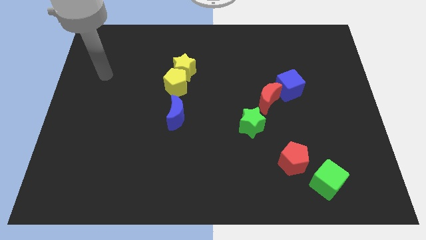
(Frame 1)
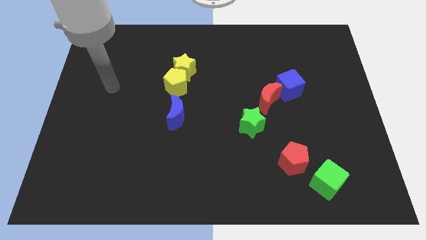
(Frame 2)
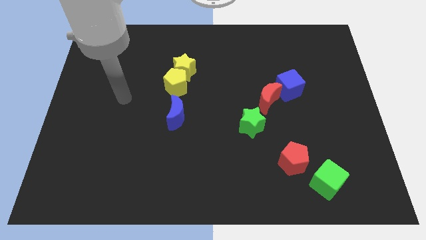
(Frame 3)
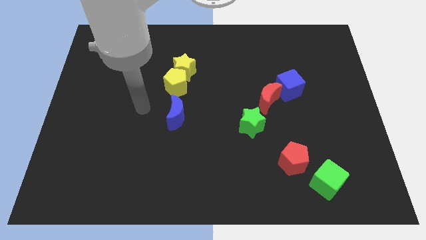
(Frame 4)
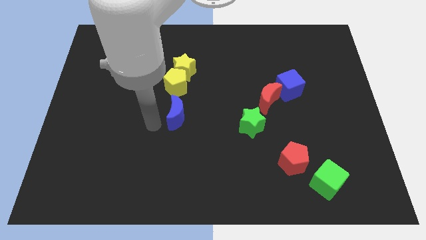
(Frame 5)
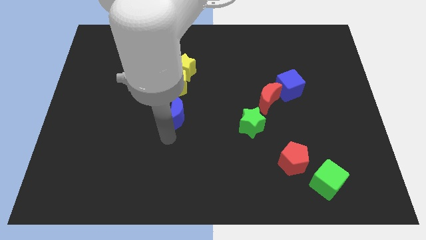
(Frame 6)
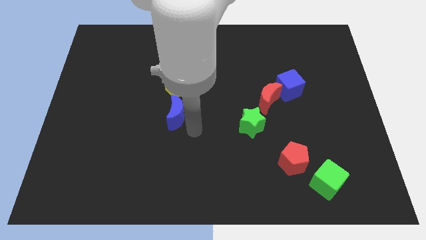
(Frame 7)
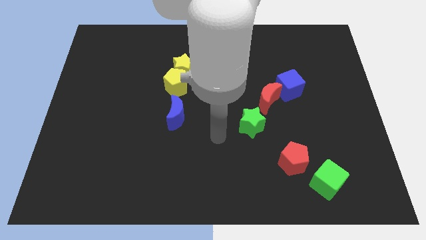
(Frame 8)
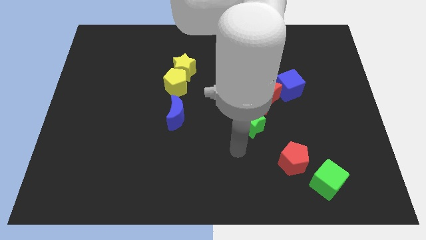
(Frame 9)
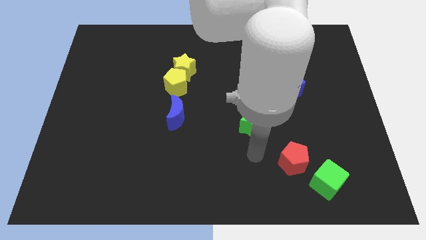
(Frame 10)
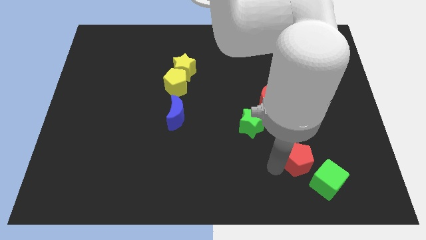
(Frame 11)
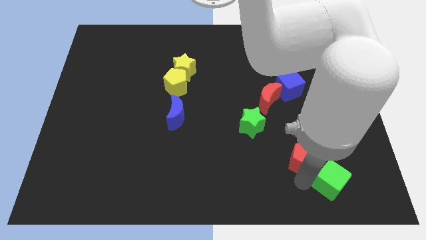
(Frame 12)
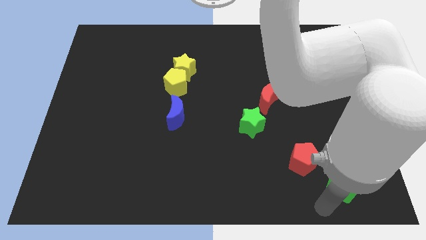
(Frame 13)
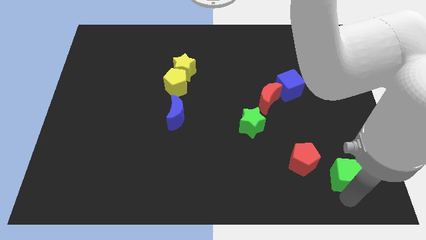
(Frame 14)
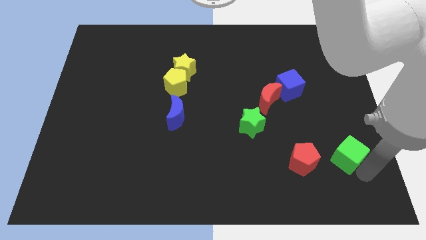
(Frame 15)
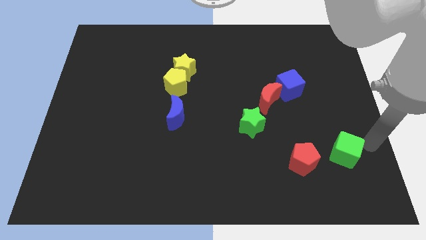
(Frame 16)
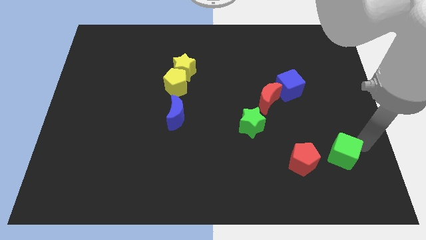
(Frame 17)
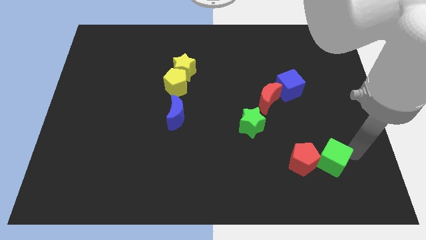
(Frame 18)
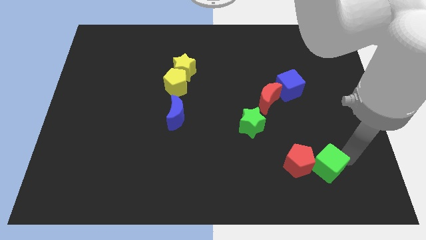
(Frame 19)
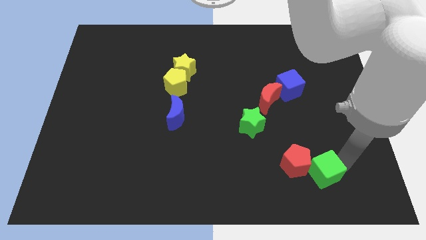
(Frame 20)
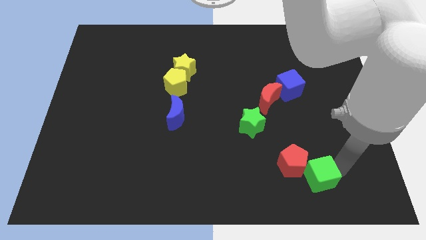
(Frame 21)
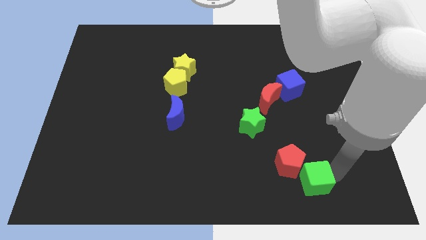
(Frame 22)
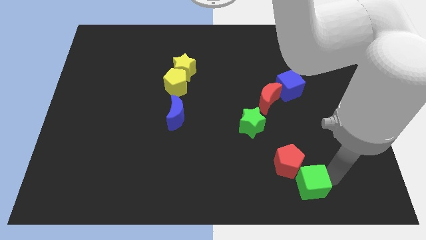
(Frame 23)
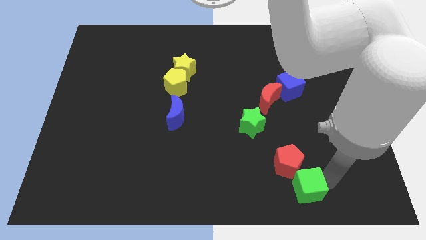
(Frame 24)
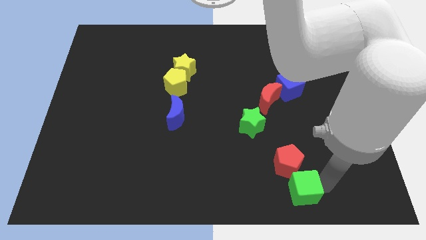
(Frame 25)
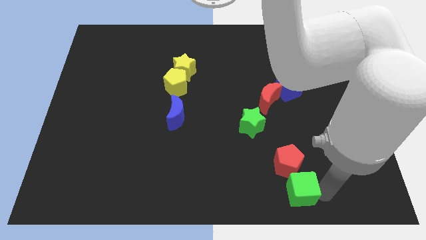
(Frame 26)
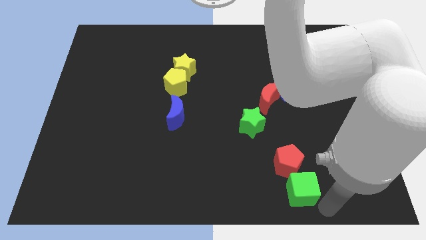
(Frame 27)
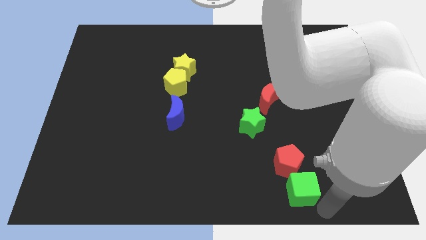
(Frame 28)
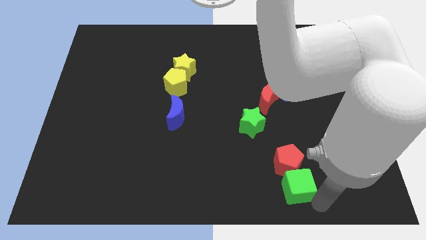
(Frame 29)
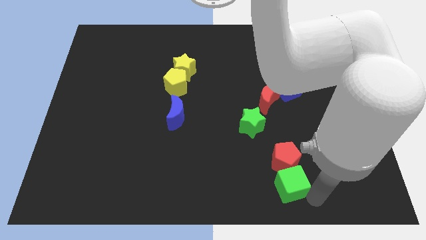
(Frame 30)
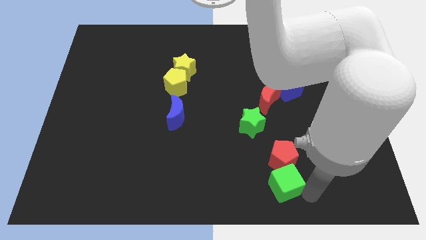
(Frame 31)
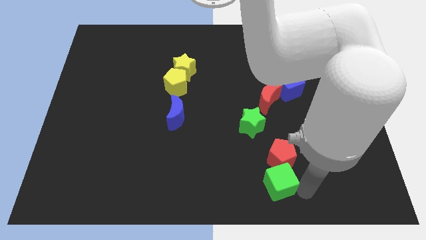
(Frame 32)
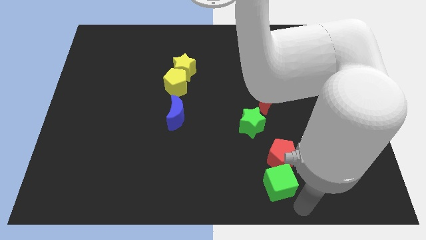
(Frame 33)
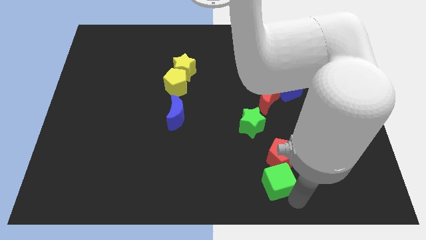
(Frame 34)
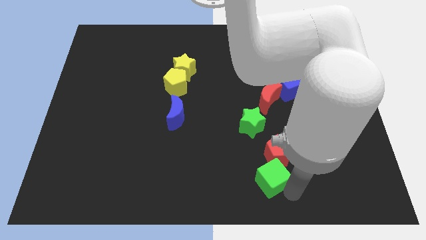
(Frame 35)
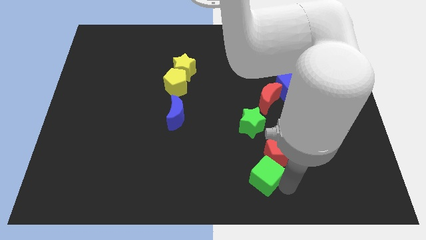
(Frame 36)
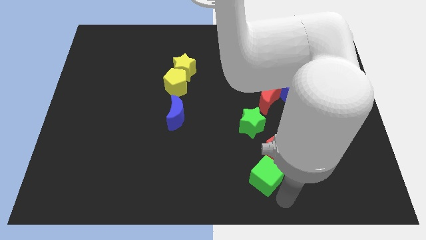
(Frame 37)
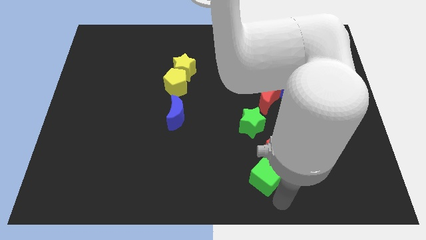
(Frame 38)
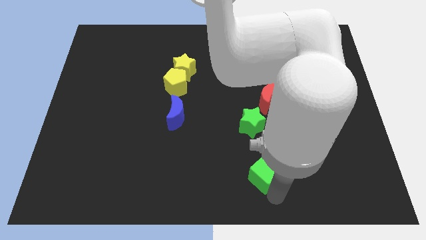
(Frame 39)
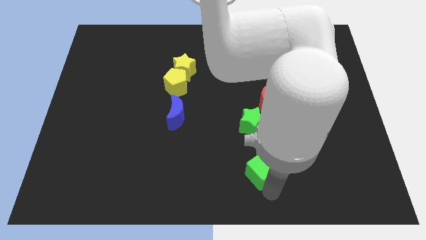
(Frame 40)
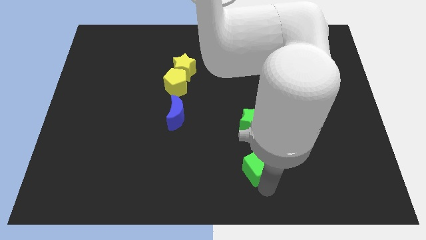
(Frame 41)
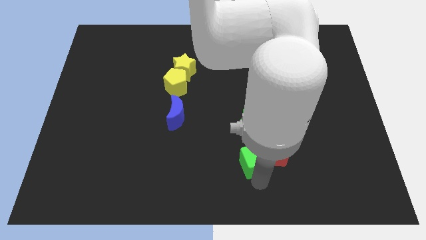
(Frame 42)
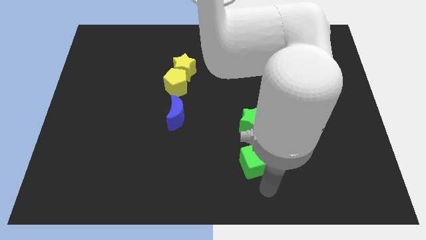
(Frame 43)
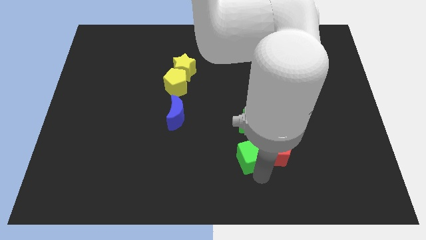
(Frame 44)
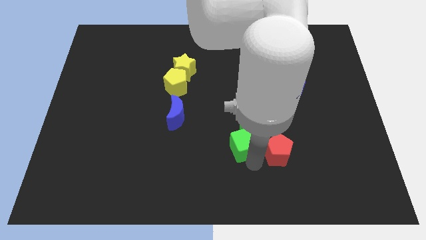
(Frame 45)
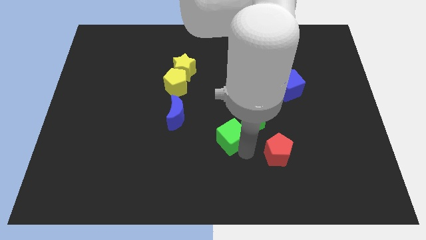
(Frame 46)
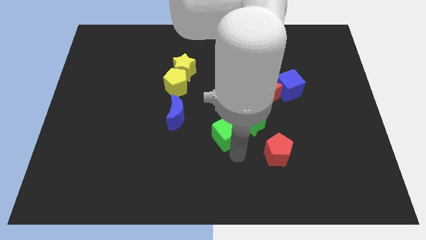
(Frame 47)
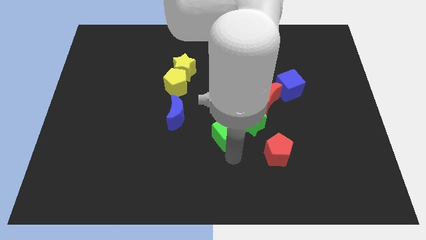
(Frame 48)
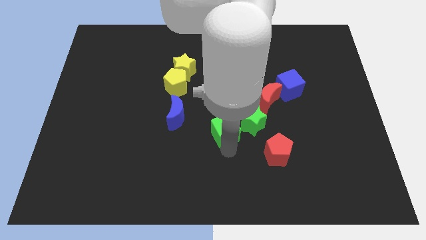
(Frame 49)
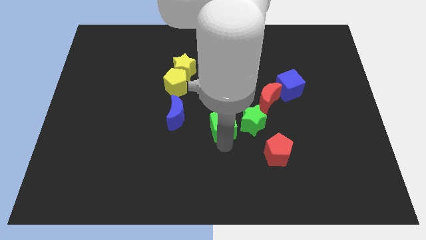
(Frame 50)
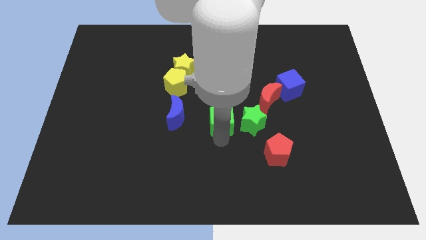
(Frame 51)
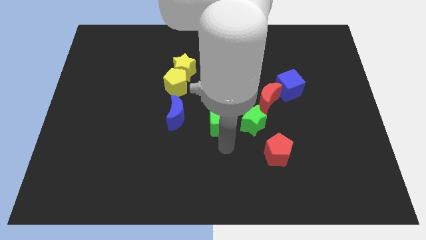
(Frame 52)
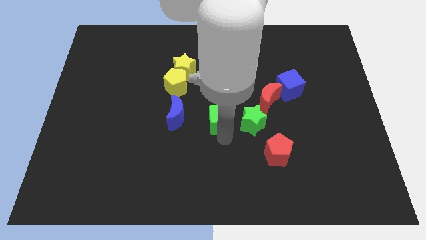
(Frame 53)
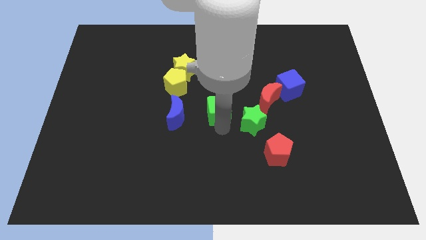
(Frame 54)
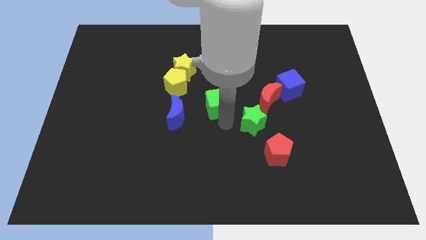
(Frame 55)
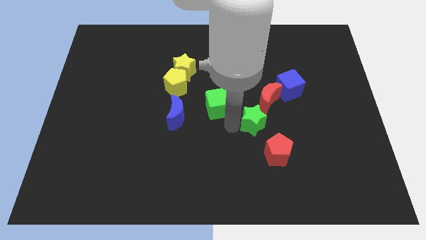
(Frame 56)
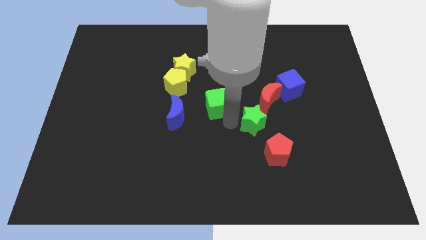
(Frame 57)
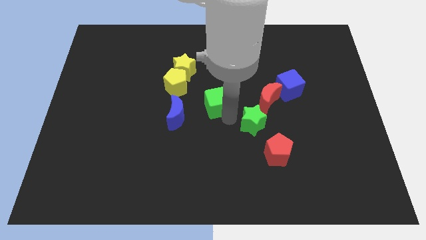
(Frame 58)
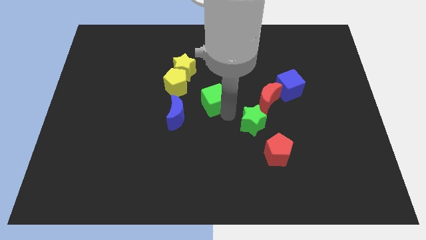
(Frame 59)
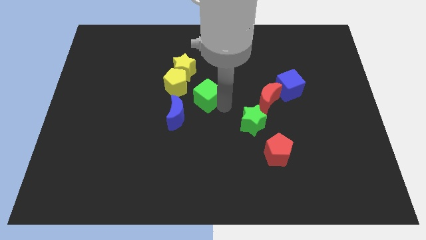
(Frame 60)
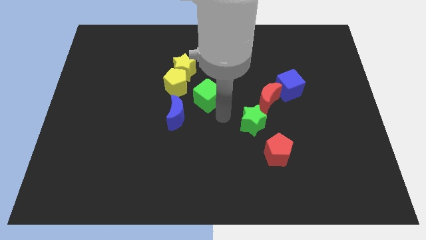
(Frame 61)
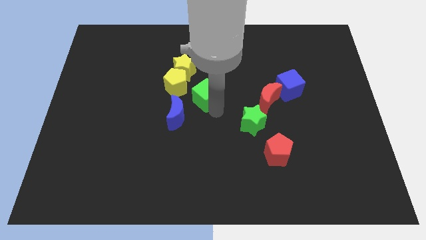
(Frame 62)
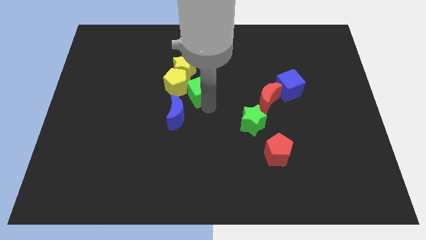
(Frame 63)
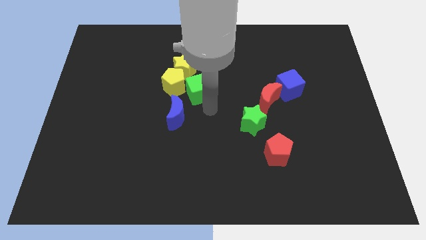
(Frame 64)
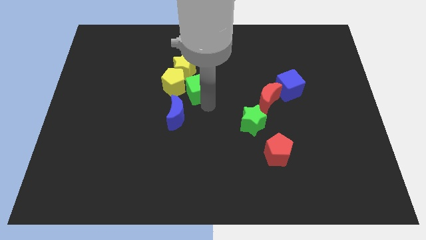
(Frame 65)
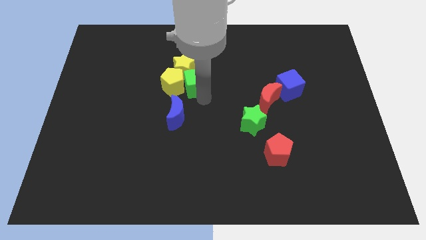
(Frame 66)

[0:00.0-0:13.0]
slide the green cube to the yellow star

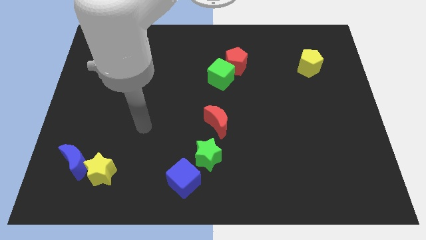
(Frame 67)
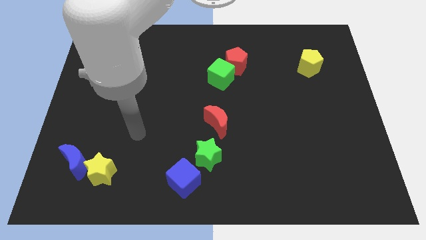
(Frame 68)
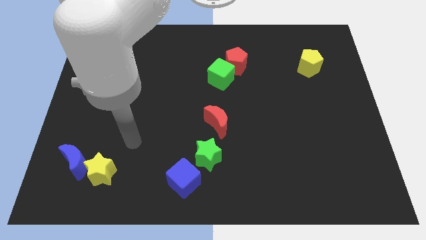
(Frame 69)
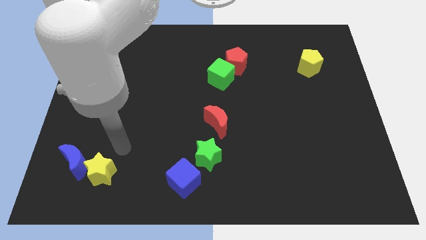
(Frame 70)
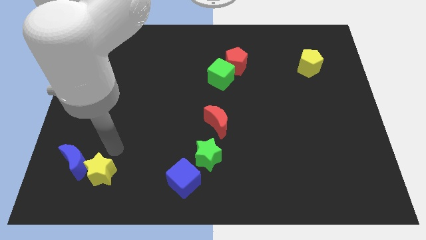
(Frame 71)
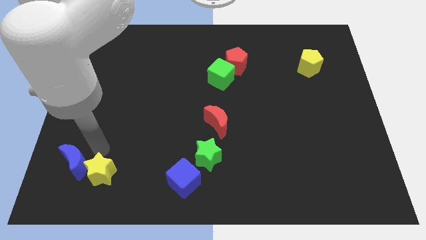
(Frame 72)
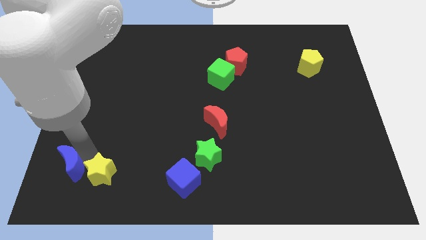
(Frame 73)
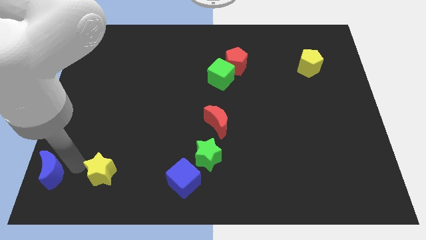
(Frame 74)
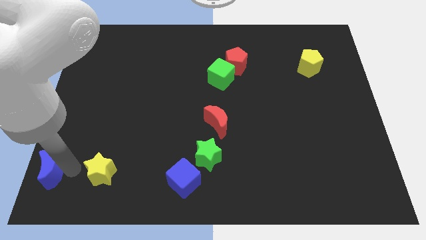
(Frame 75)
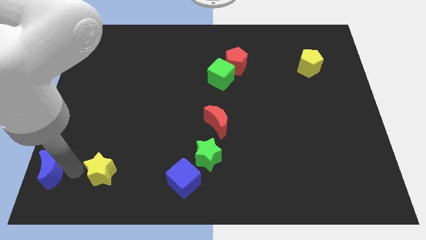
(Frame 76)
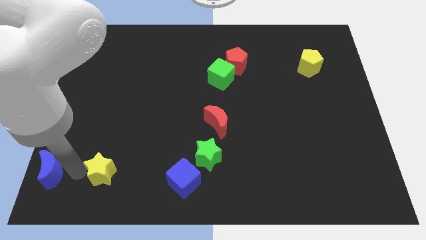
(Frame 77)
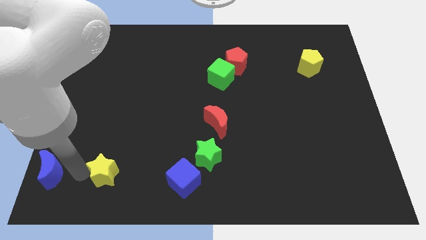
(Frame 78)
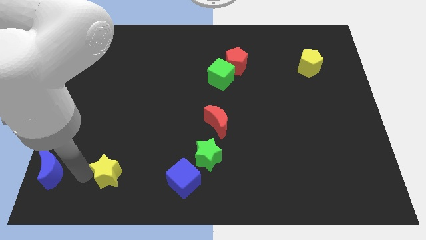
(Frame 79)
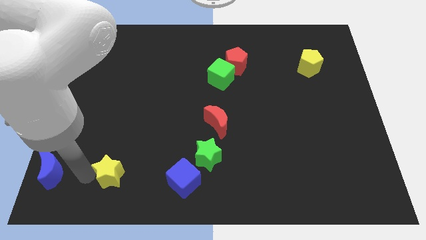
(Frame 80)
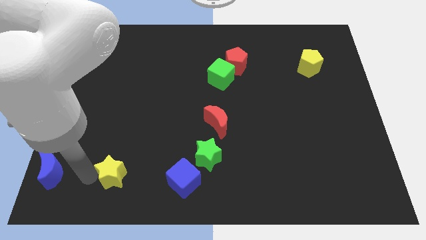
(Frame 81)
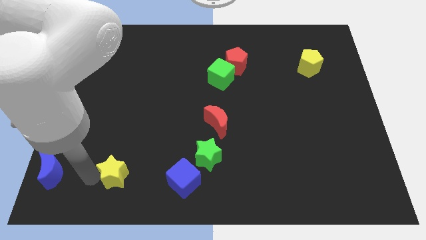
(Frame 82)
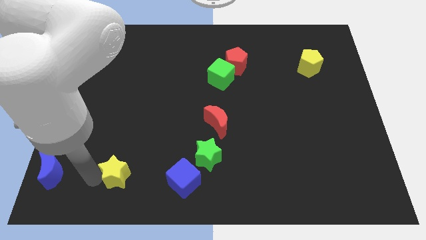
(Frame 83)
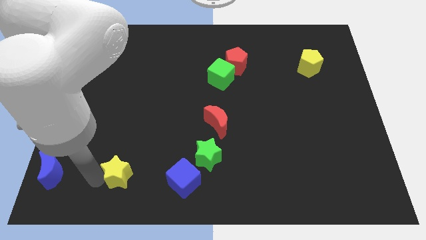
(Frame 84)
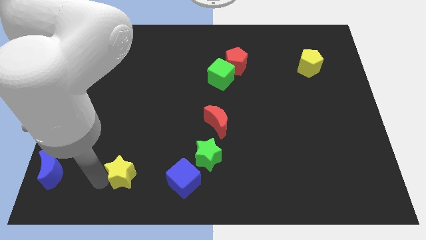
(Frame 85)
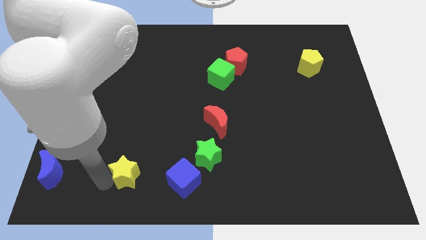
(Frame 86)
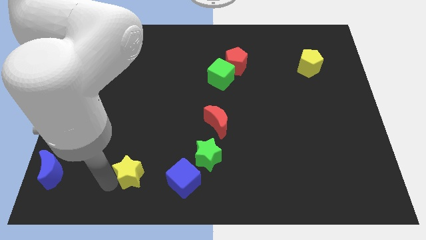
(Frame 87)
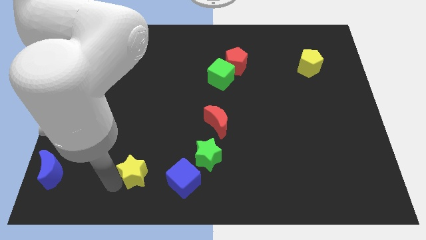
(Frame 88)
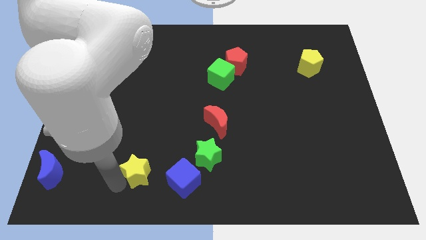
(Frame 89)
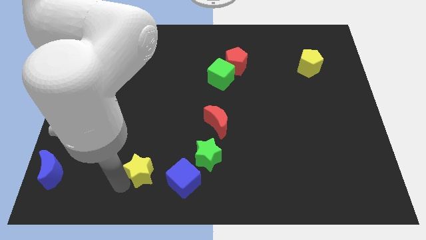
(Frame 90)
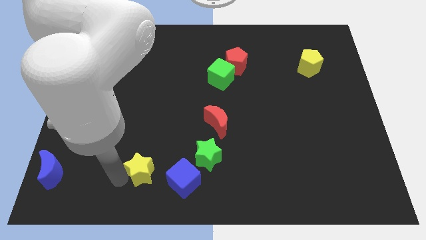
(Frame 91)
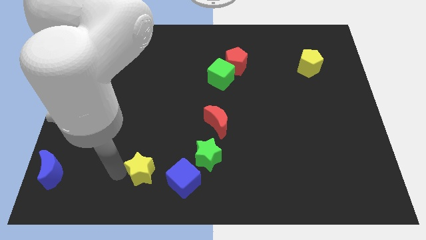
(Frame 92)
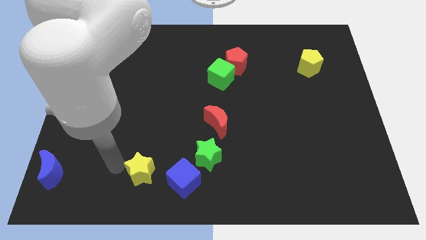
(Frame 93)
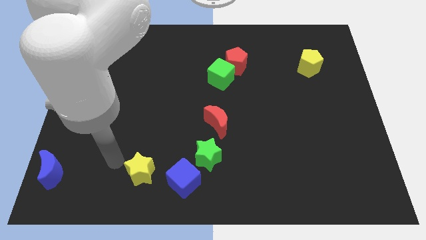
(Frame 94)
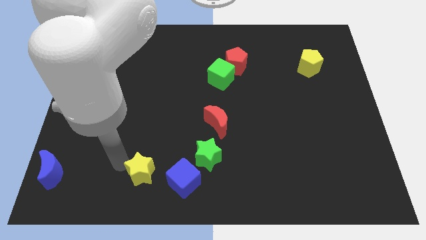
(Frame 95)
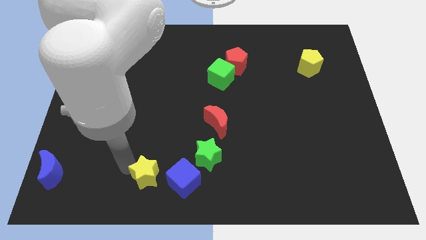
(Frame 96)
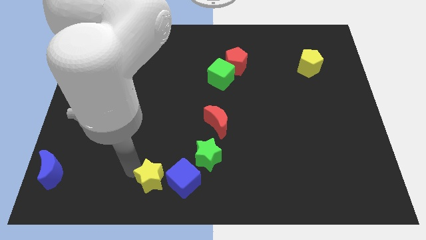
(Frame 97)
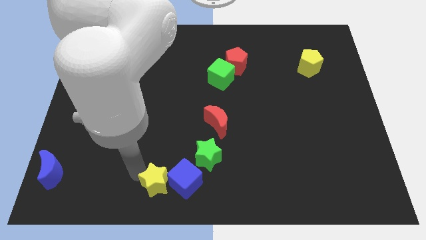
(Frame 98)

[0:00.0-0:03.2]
move the yellow star towards the blue cube
